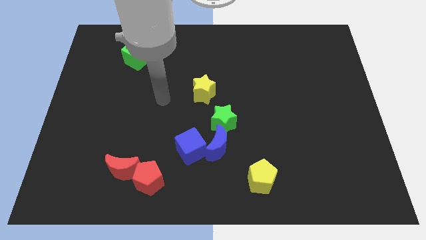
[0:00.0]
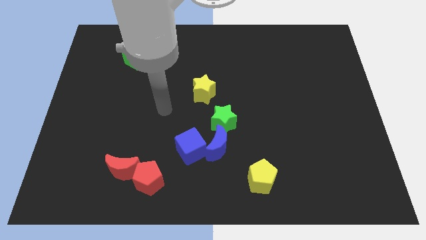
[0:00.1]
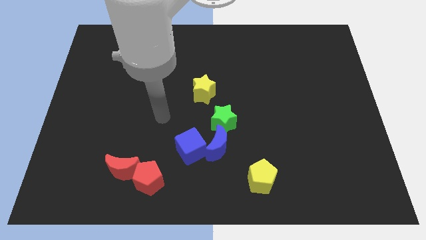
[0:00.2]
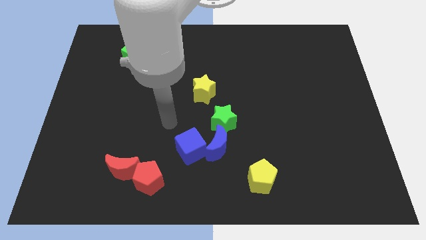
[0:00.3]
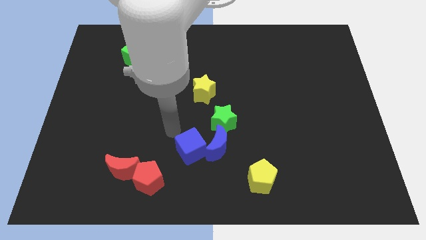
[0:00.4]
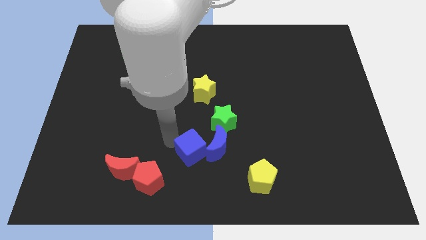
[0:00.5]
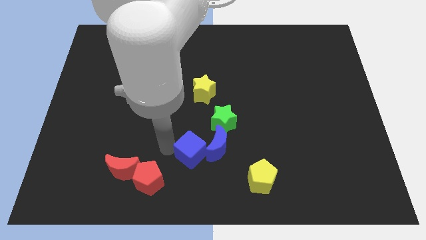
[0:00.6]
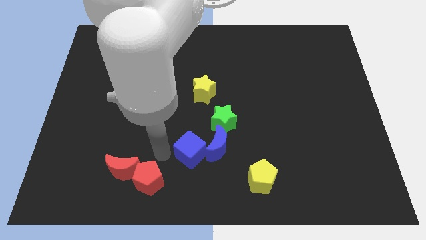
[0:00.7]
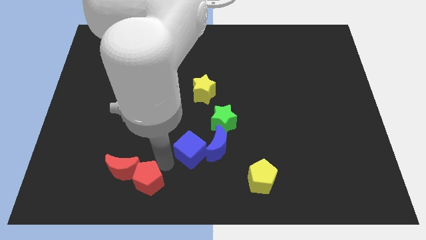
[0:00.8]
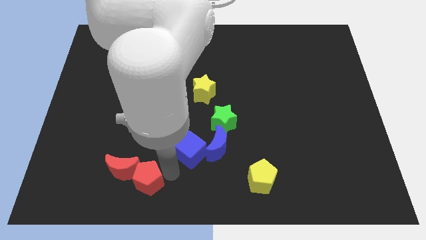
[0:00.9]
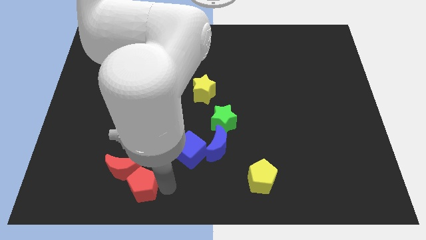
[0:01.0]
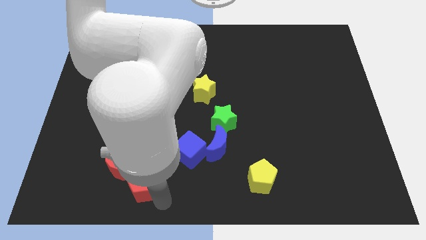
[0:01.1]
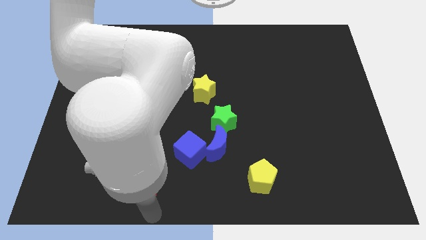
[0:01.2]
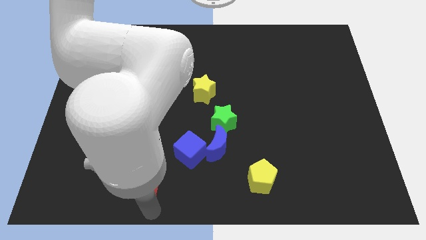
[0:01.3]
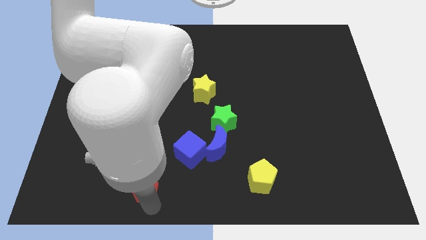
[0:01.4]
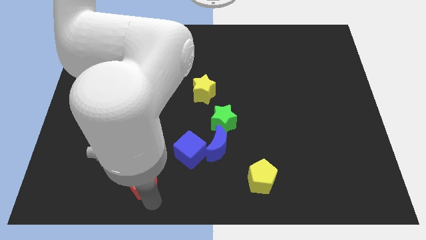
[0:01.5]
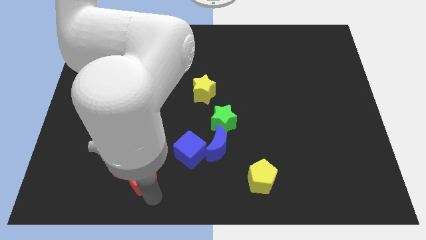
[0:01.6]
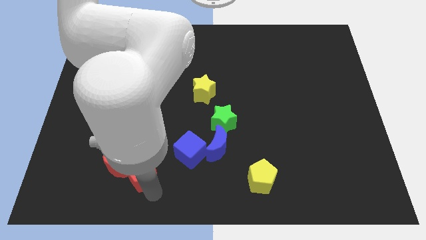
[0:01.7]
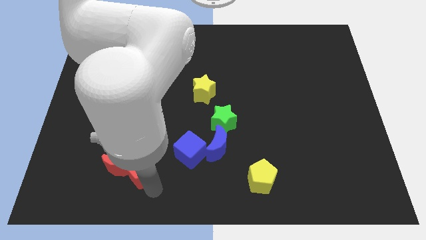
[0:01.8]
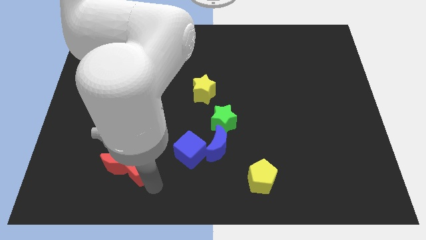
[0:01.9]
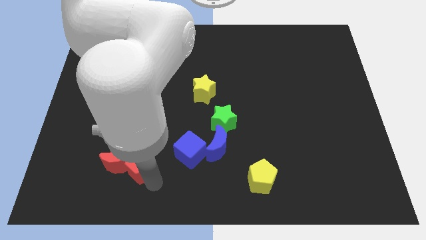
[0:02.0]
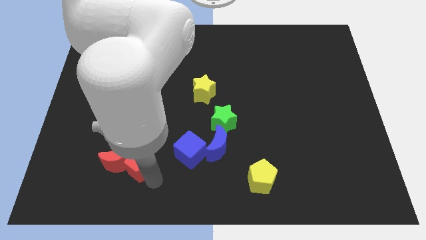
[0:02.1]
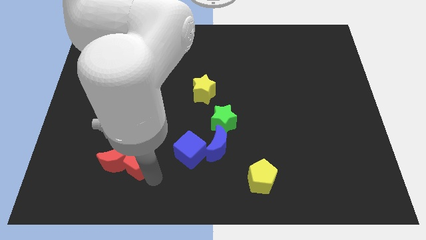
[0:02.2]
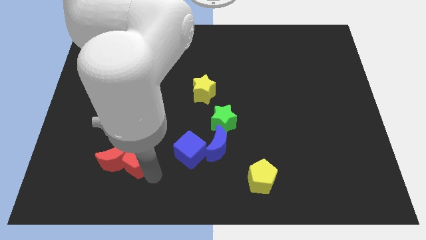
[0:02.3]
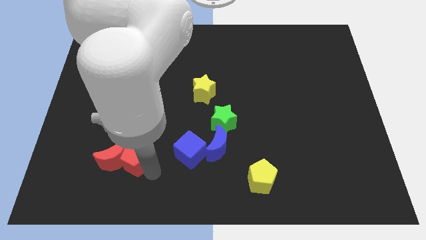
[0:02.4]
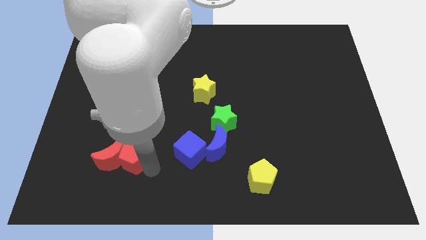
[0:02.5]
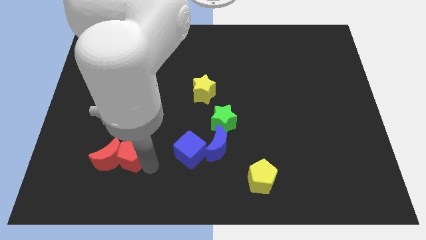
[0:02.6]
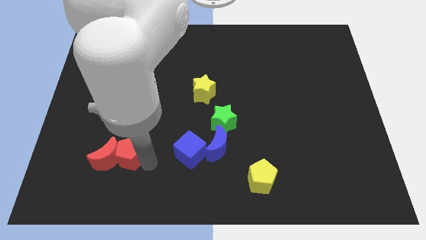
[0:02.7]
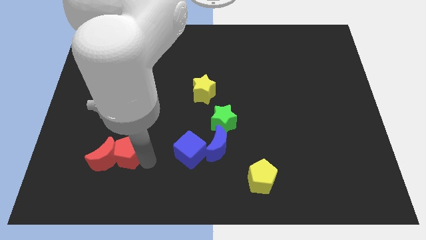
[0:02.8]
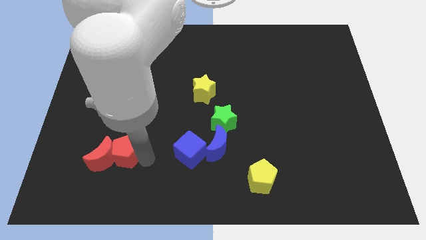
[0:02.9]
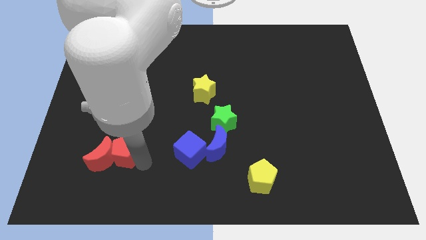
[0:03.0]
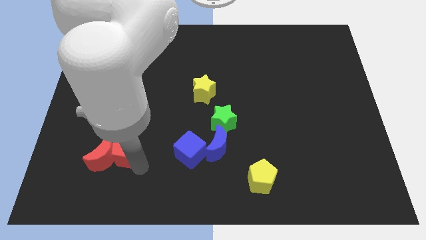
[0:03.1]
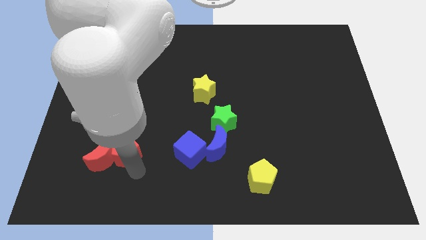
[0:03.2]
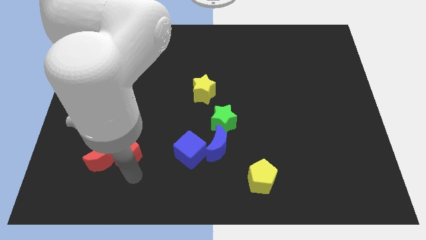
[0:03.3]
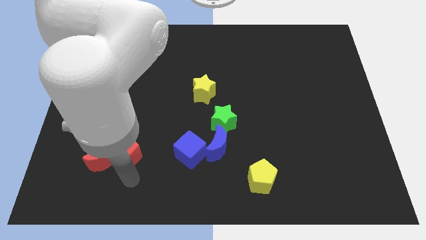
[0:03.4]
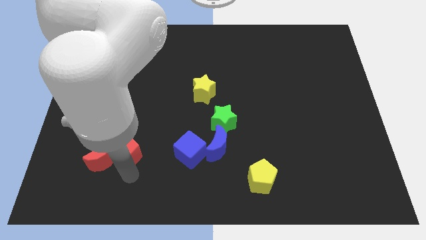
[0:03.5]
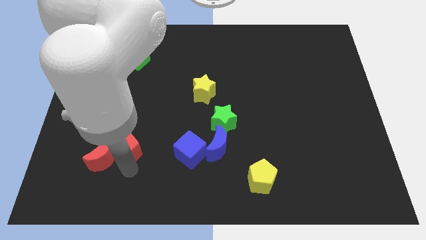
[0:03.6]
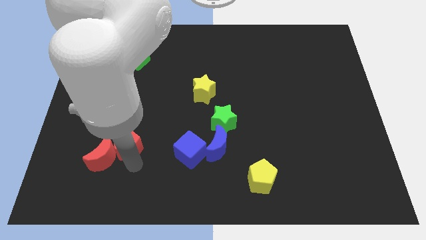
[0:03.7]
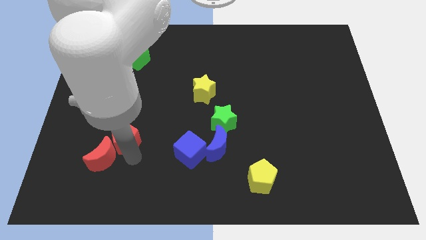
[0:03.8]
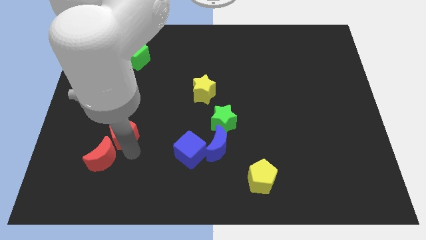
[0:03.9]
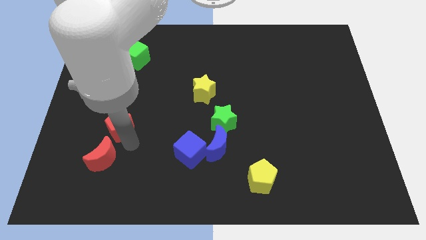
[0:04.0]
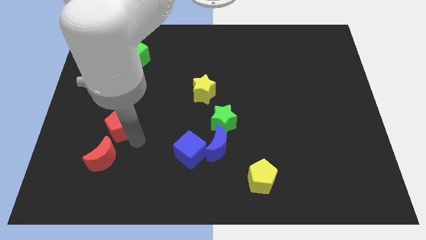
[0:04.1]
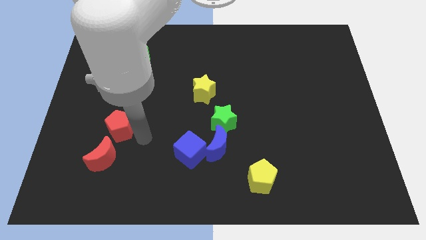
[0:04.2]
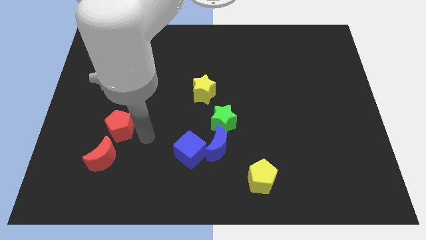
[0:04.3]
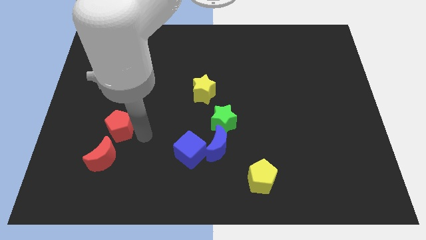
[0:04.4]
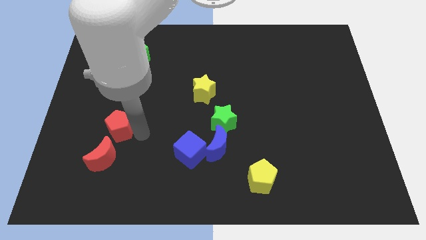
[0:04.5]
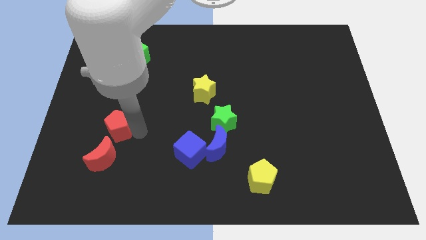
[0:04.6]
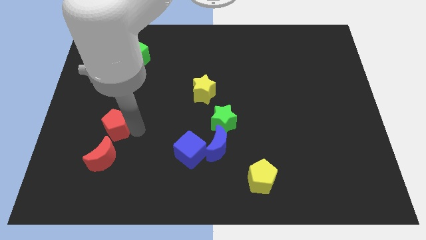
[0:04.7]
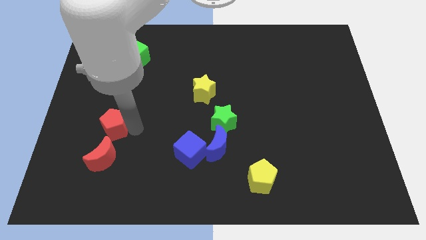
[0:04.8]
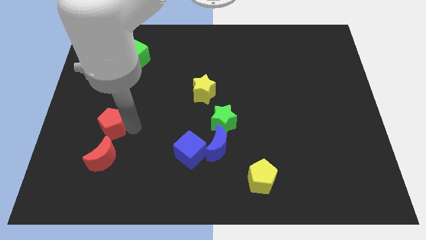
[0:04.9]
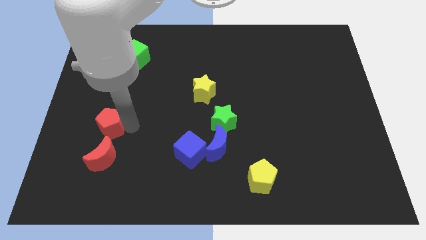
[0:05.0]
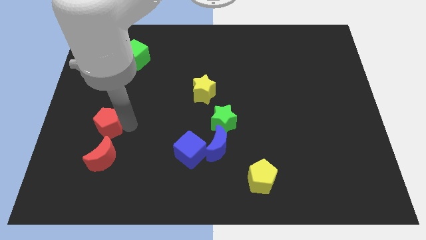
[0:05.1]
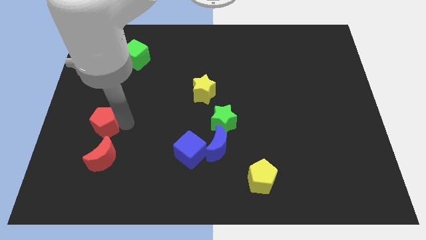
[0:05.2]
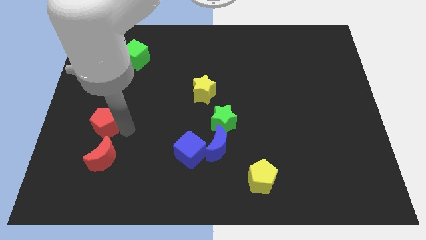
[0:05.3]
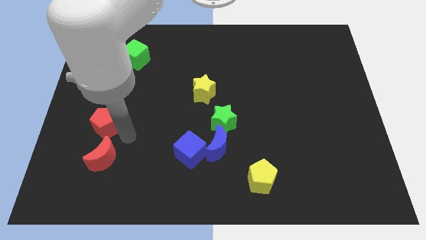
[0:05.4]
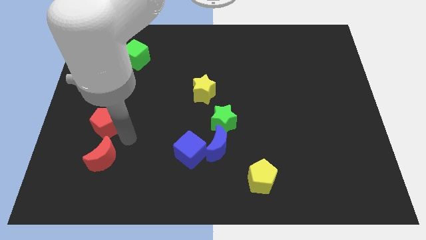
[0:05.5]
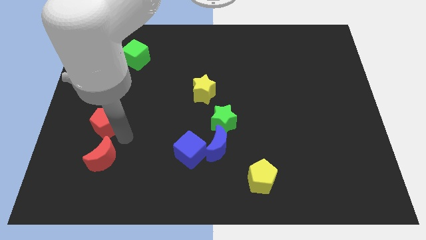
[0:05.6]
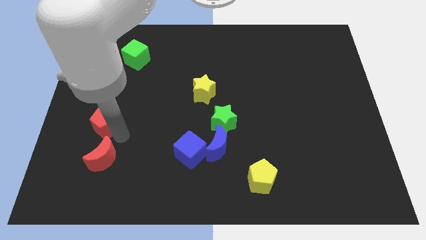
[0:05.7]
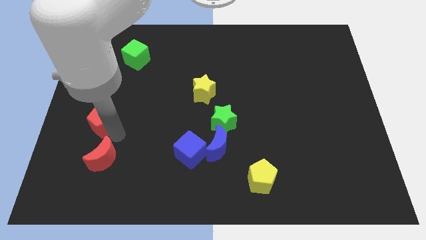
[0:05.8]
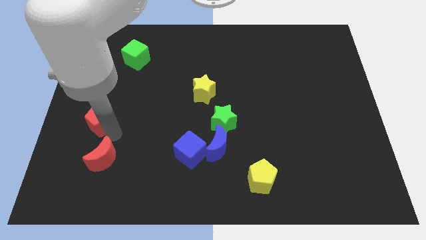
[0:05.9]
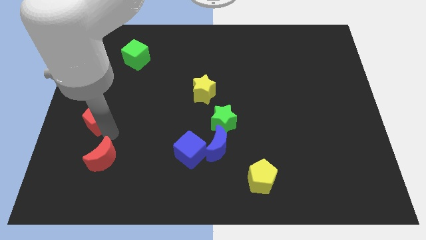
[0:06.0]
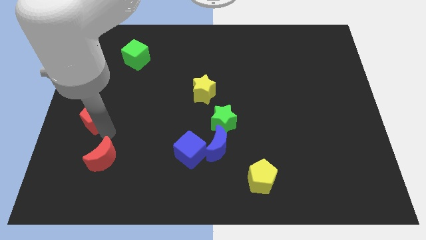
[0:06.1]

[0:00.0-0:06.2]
push the red pentagon to the left side of the board

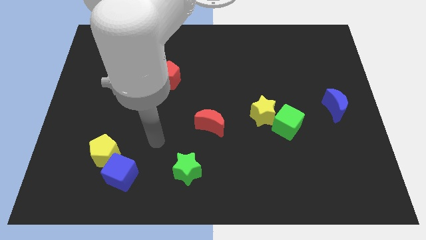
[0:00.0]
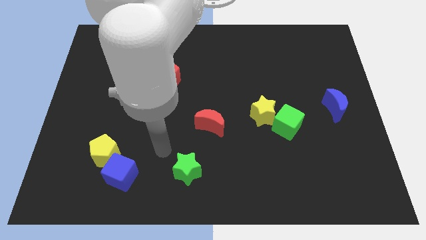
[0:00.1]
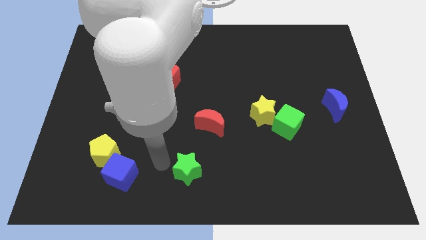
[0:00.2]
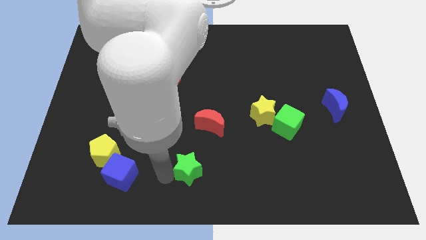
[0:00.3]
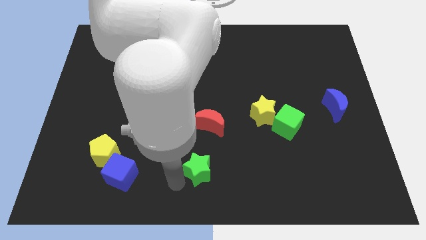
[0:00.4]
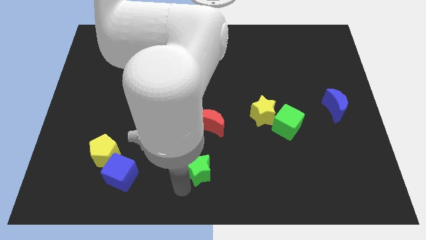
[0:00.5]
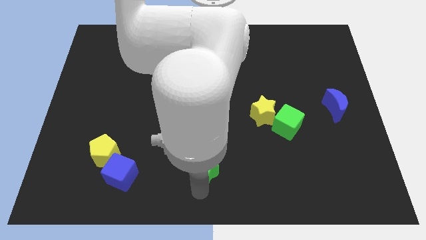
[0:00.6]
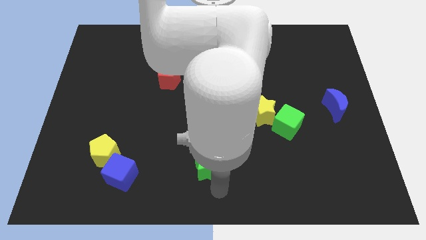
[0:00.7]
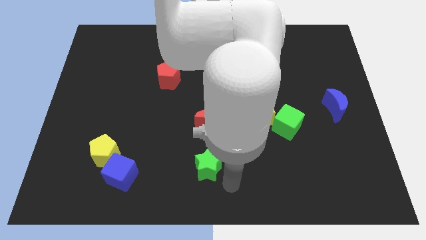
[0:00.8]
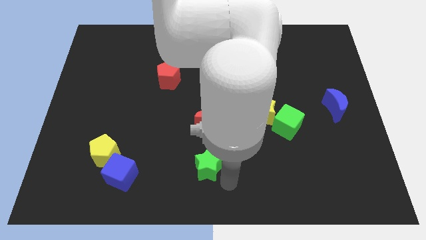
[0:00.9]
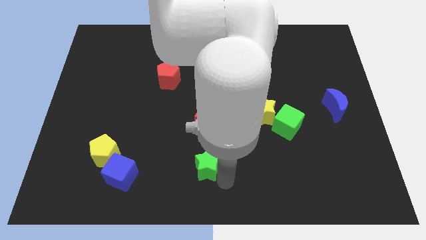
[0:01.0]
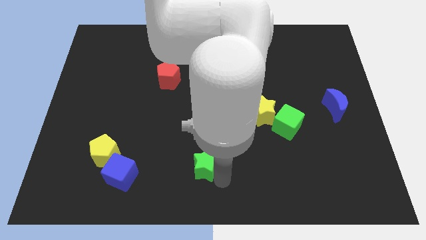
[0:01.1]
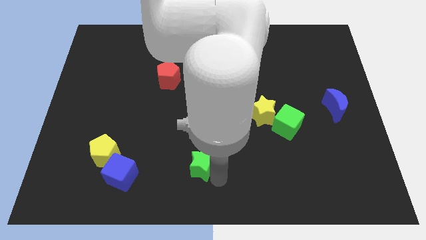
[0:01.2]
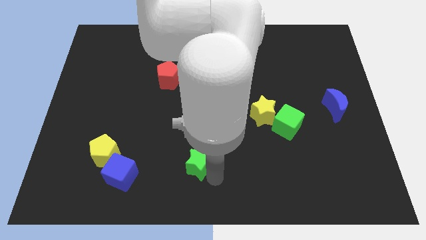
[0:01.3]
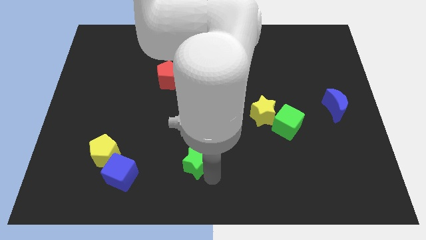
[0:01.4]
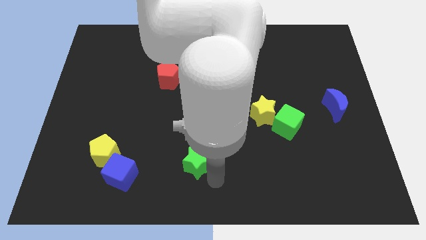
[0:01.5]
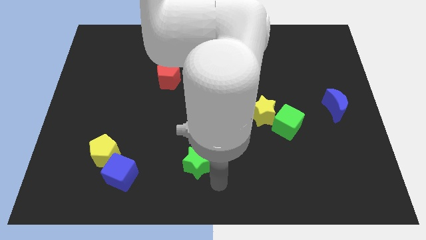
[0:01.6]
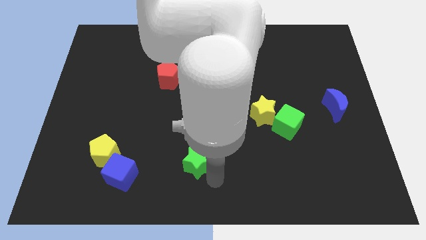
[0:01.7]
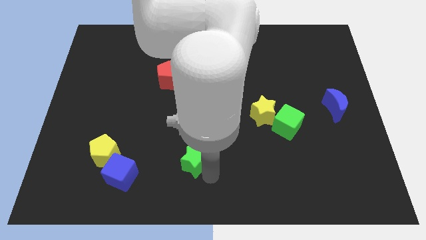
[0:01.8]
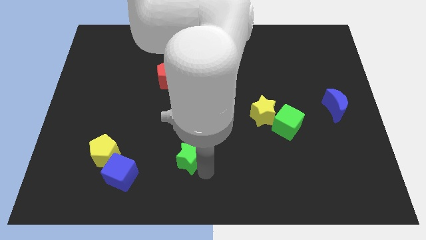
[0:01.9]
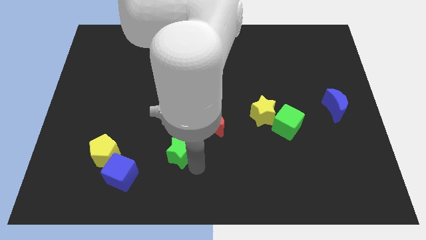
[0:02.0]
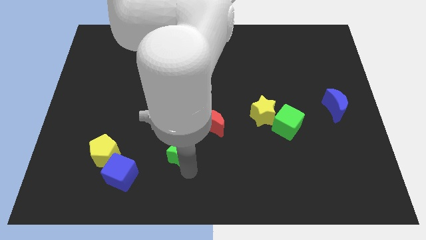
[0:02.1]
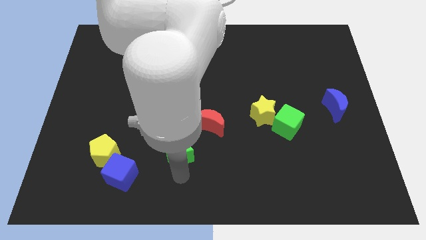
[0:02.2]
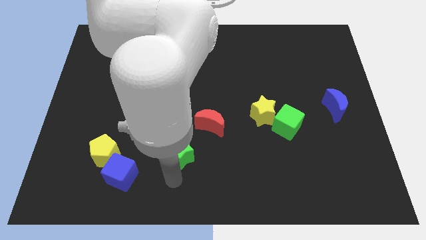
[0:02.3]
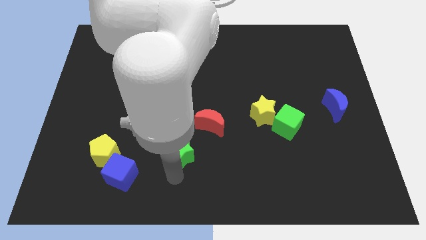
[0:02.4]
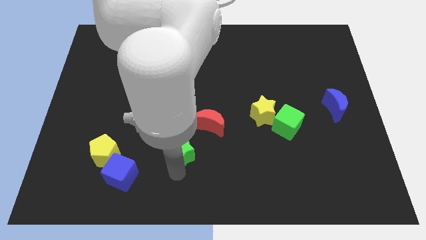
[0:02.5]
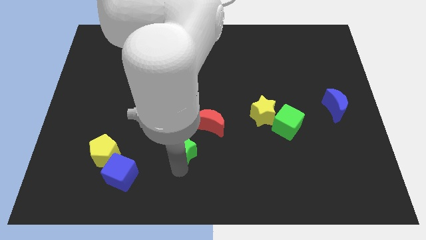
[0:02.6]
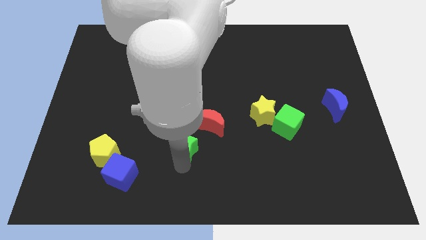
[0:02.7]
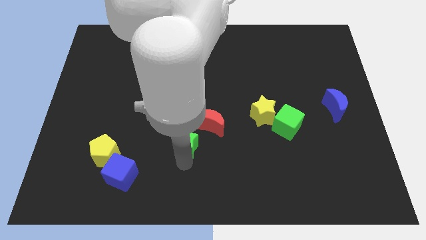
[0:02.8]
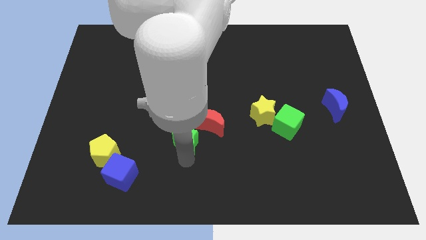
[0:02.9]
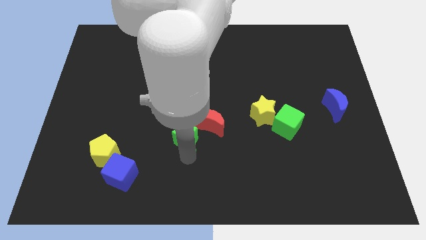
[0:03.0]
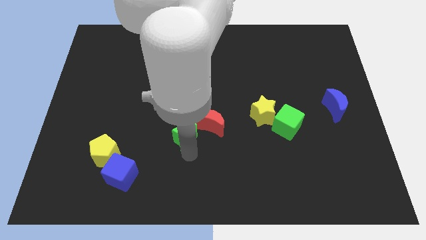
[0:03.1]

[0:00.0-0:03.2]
put the green star to the middle of the board
